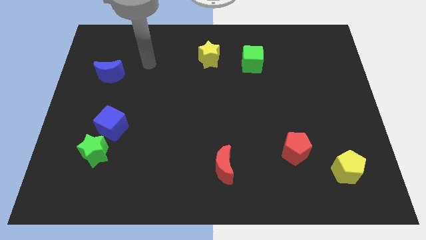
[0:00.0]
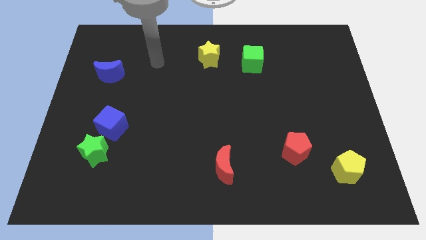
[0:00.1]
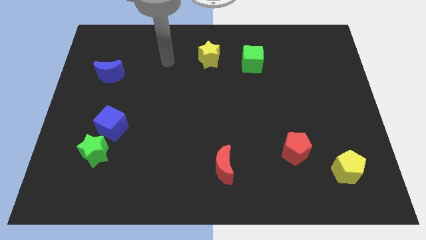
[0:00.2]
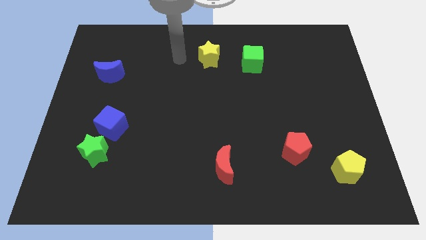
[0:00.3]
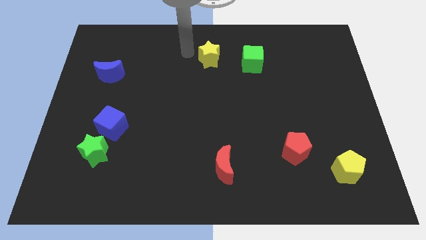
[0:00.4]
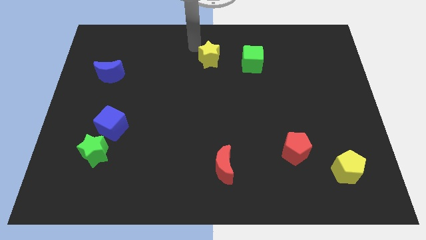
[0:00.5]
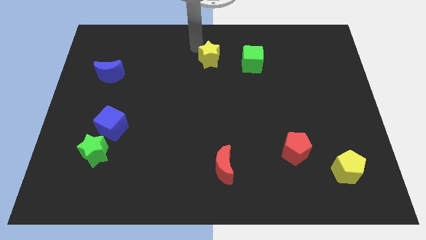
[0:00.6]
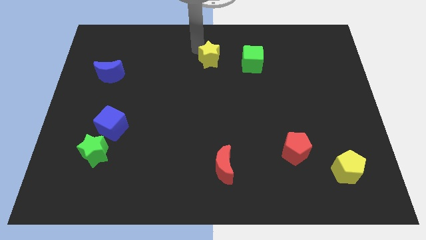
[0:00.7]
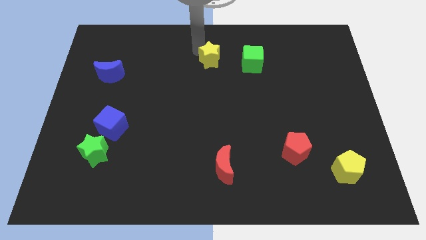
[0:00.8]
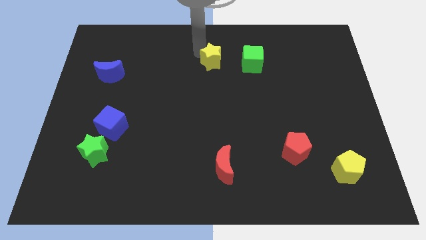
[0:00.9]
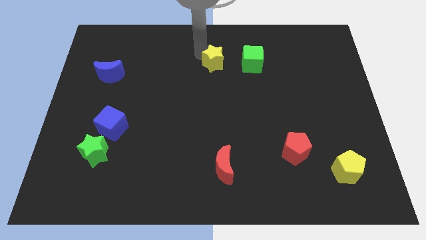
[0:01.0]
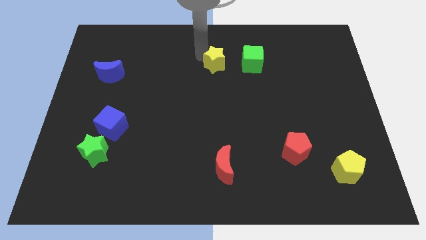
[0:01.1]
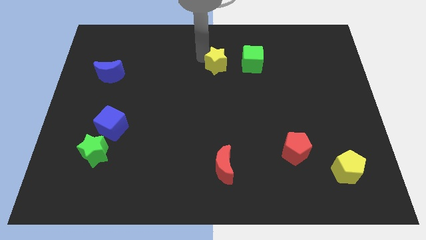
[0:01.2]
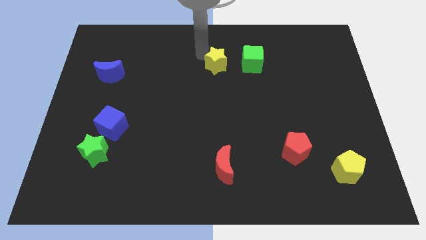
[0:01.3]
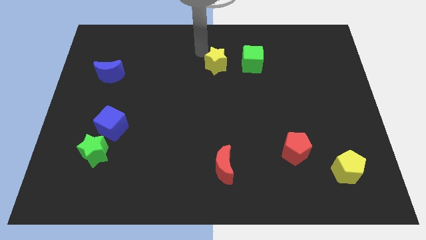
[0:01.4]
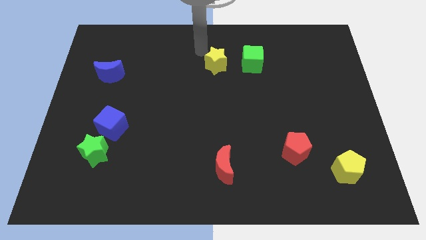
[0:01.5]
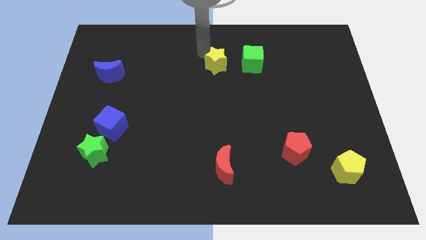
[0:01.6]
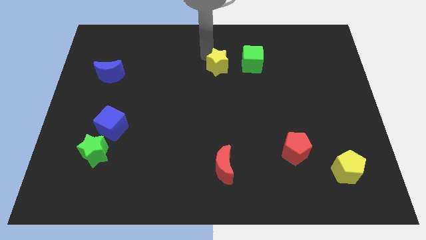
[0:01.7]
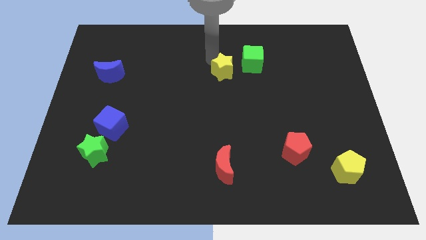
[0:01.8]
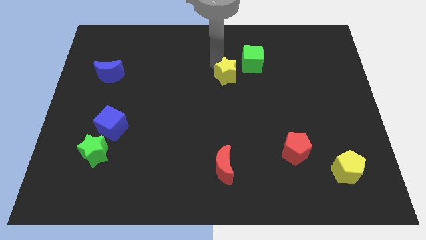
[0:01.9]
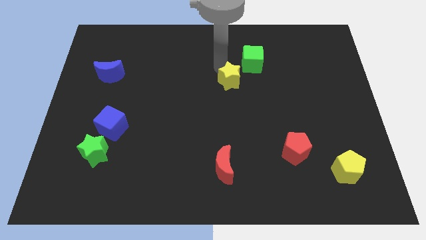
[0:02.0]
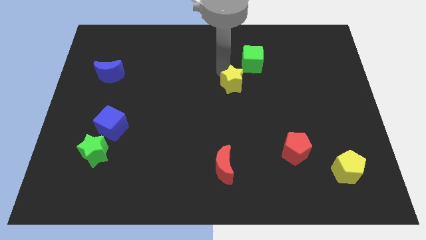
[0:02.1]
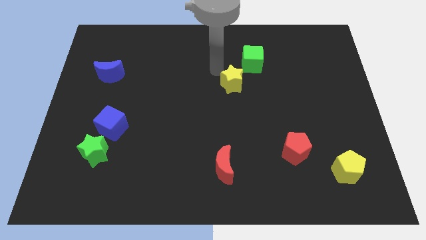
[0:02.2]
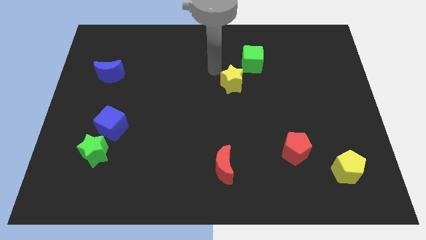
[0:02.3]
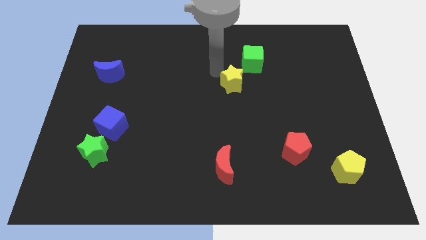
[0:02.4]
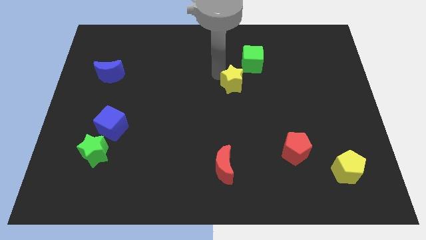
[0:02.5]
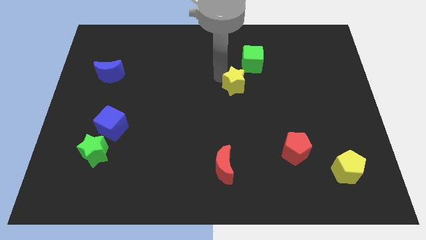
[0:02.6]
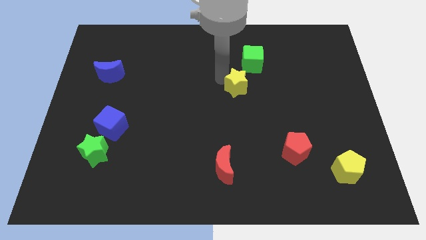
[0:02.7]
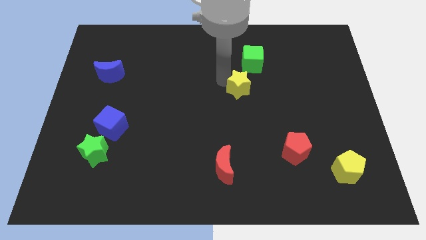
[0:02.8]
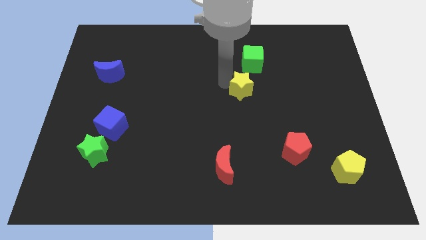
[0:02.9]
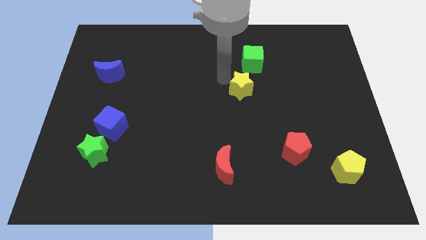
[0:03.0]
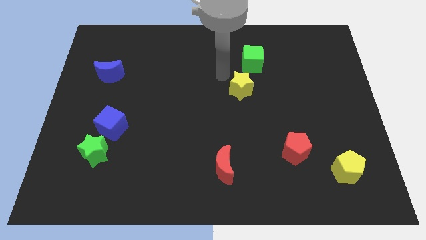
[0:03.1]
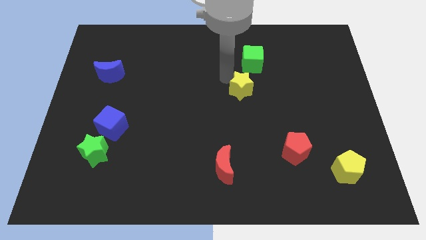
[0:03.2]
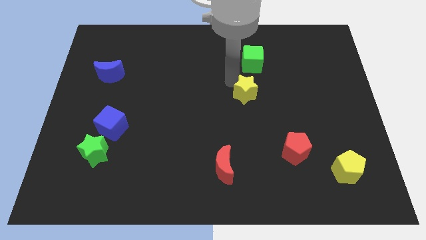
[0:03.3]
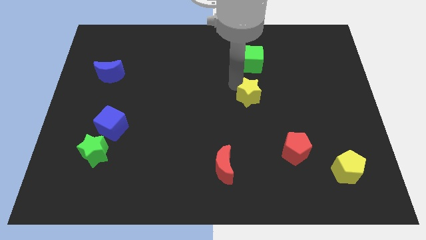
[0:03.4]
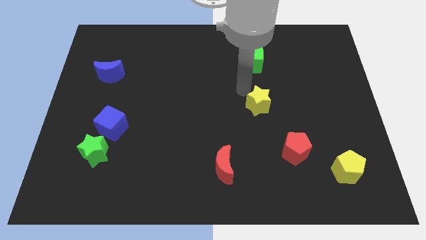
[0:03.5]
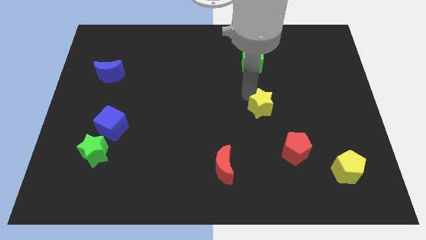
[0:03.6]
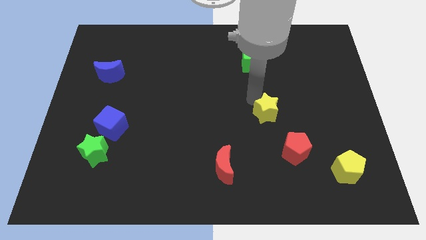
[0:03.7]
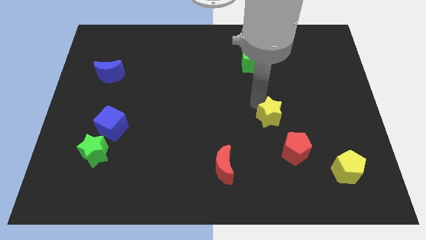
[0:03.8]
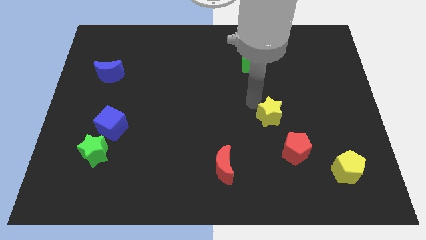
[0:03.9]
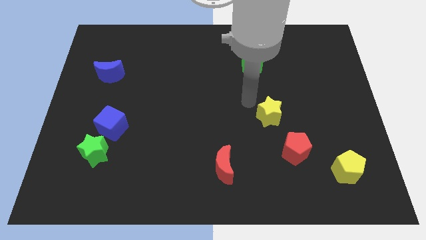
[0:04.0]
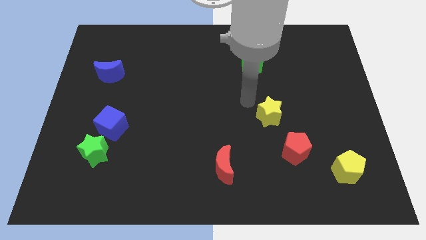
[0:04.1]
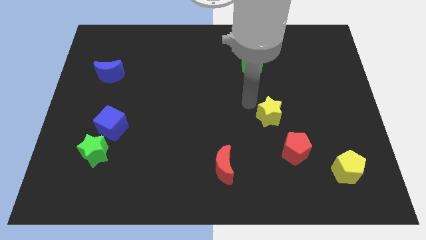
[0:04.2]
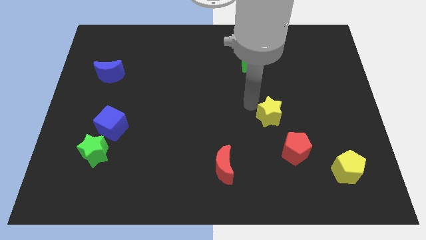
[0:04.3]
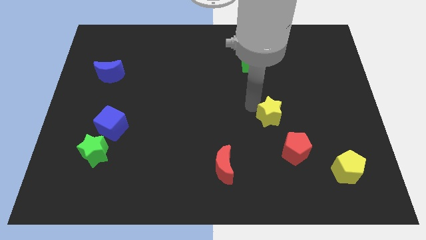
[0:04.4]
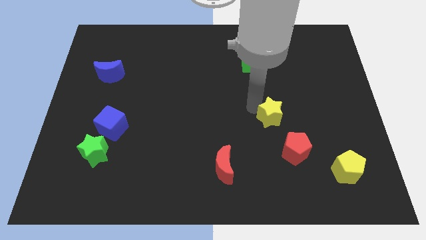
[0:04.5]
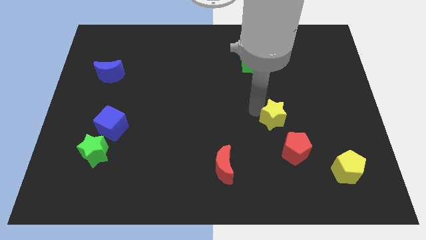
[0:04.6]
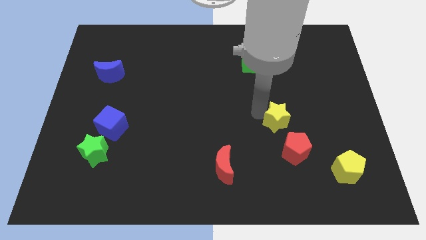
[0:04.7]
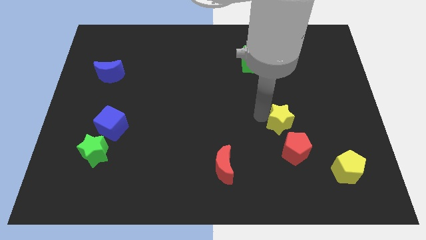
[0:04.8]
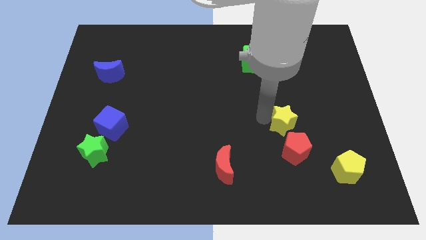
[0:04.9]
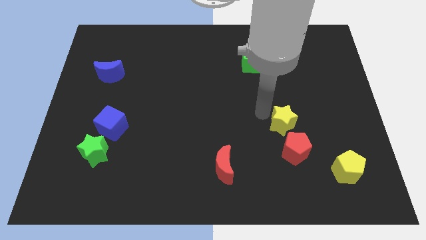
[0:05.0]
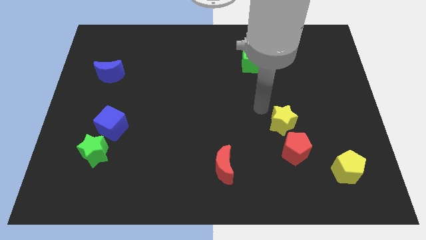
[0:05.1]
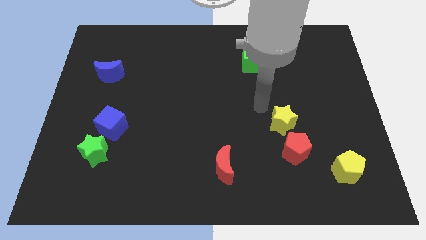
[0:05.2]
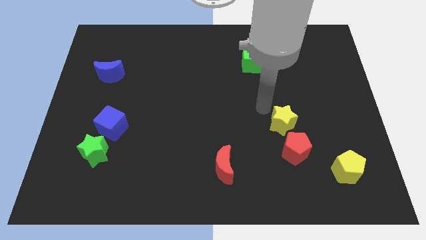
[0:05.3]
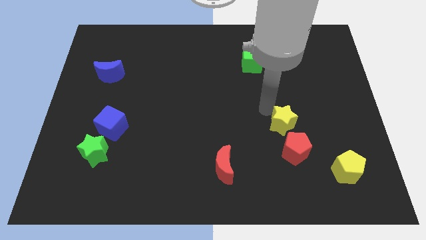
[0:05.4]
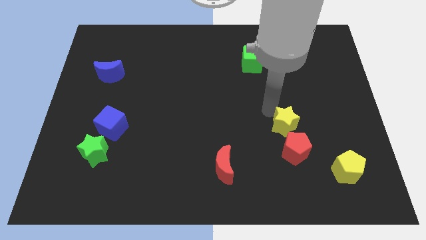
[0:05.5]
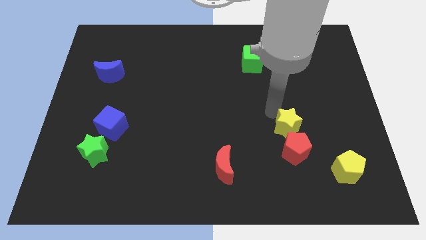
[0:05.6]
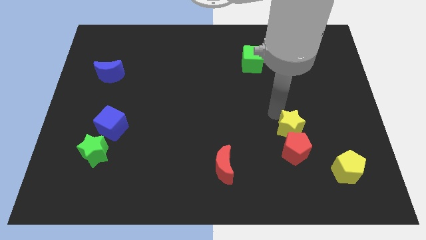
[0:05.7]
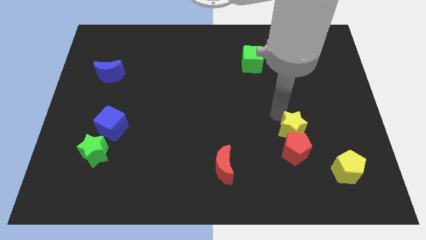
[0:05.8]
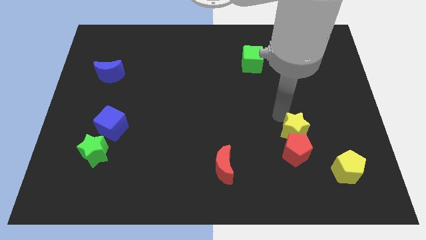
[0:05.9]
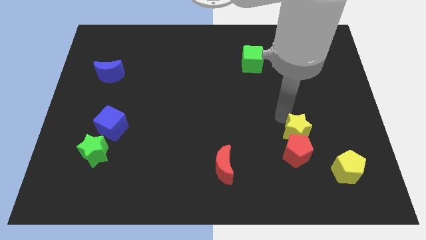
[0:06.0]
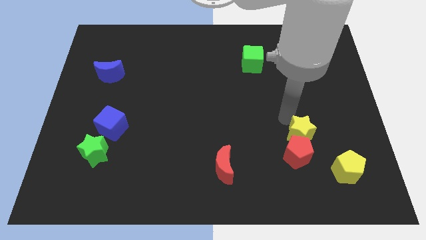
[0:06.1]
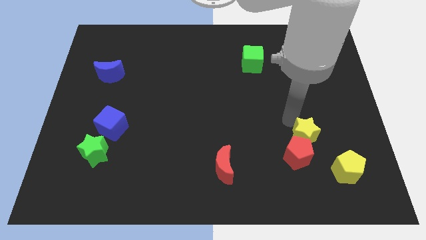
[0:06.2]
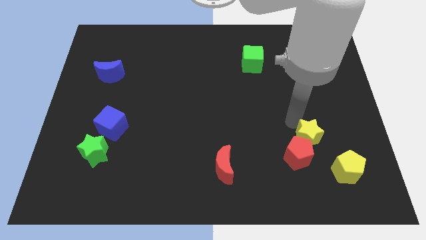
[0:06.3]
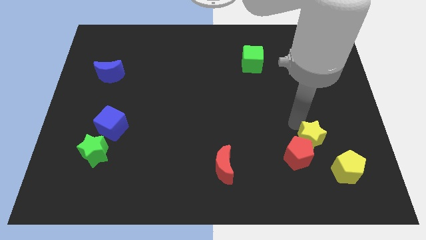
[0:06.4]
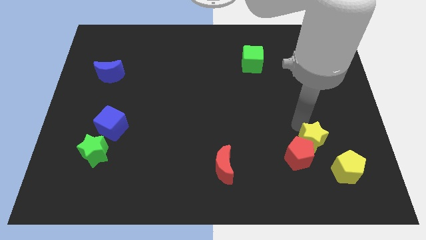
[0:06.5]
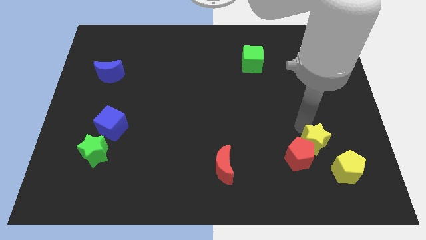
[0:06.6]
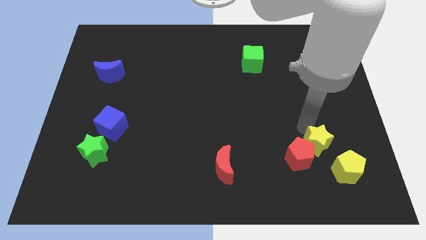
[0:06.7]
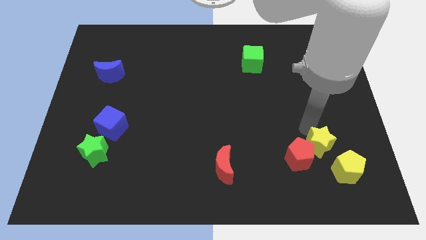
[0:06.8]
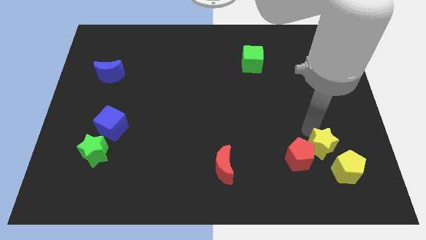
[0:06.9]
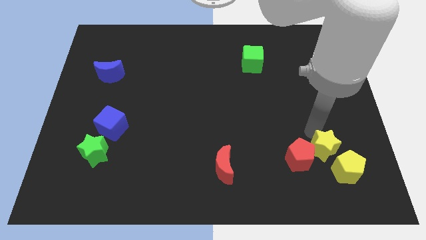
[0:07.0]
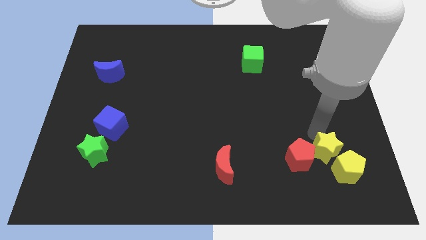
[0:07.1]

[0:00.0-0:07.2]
move the yellow star next to the yellow pentagon

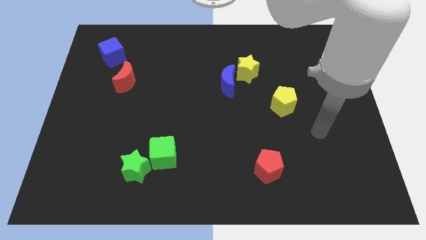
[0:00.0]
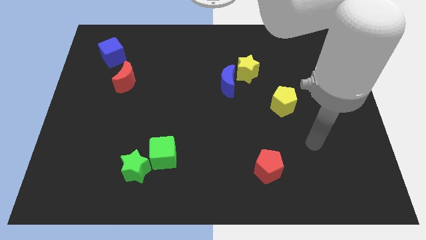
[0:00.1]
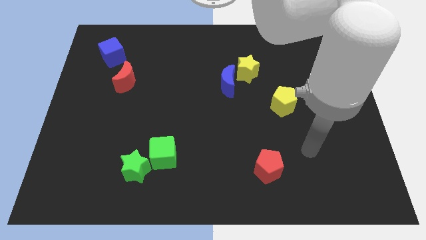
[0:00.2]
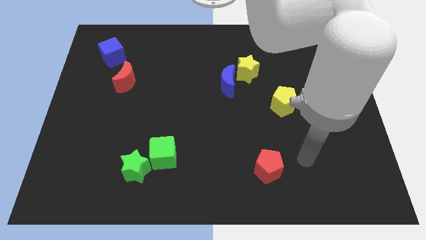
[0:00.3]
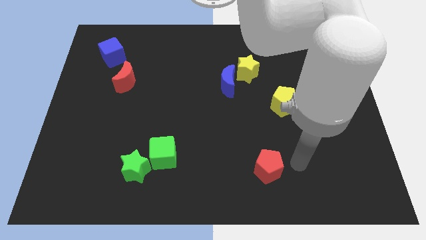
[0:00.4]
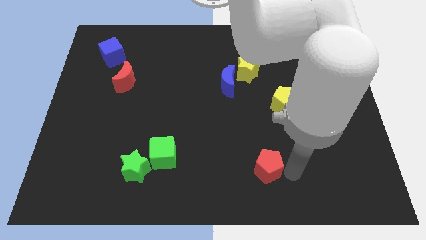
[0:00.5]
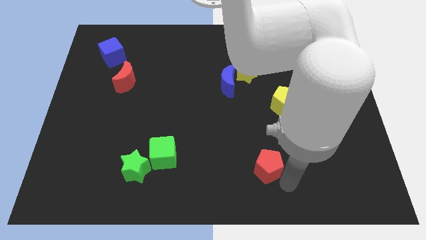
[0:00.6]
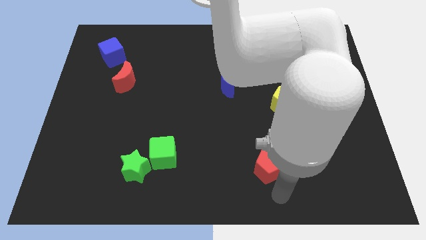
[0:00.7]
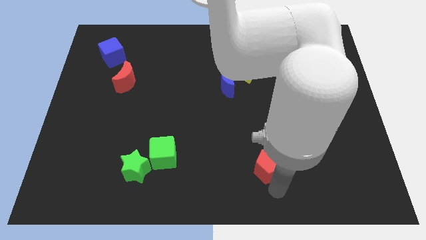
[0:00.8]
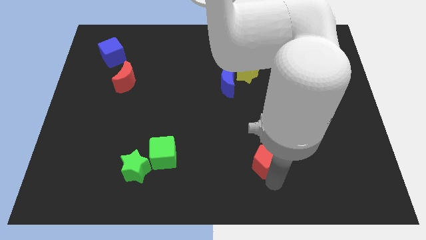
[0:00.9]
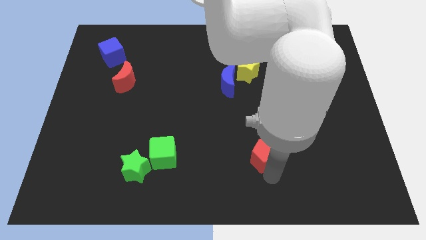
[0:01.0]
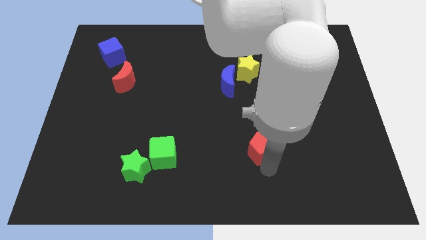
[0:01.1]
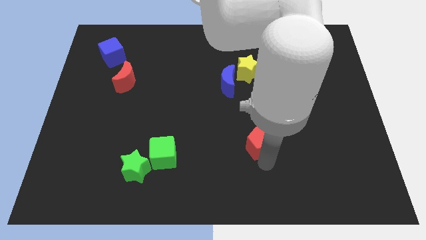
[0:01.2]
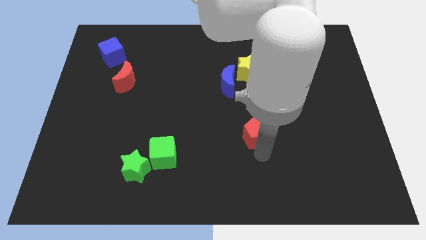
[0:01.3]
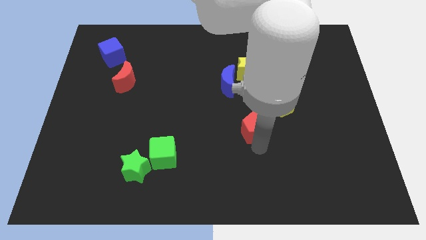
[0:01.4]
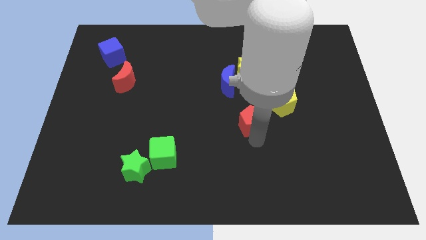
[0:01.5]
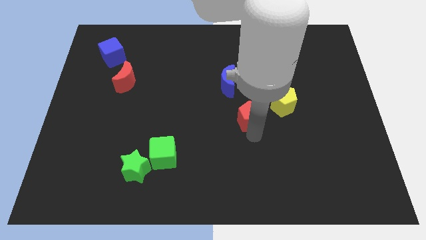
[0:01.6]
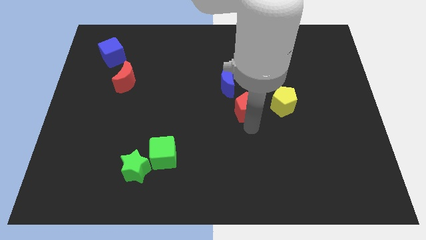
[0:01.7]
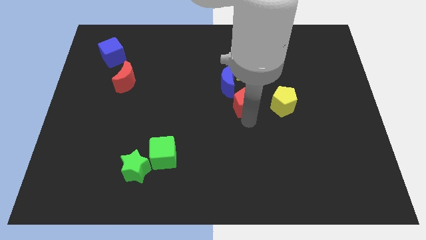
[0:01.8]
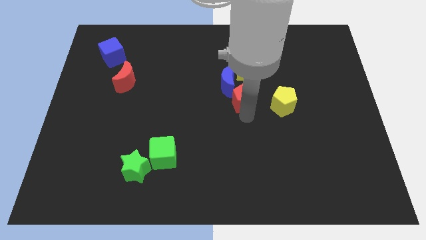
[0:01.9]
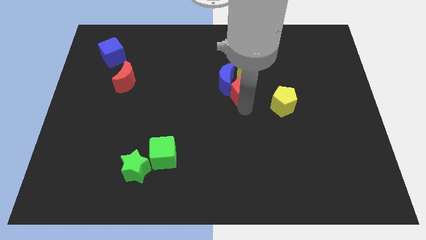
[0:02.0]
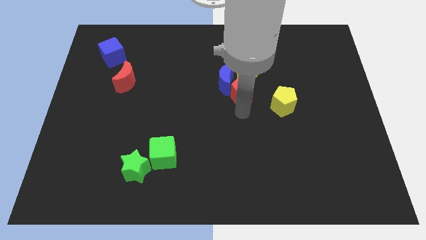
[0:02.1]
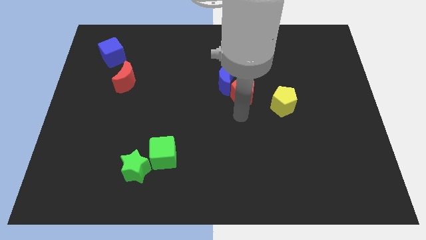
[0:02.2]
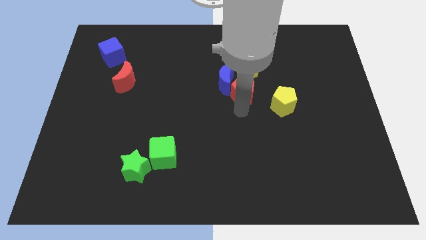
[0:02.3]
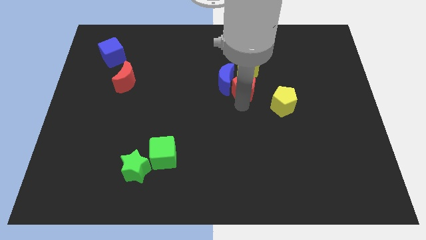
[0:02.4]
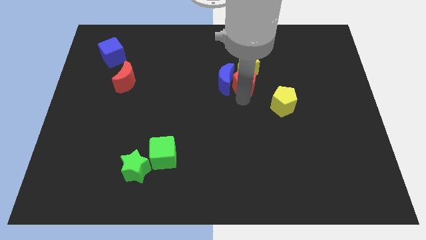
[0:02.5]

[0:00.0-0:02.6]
push the red pentagon next to the yellow star
